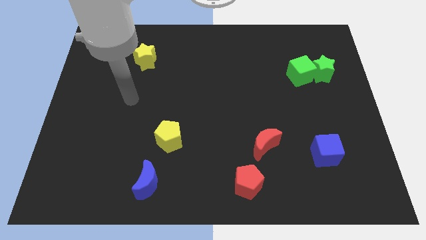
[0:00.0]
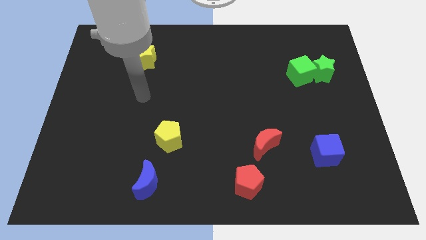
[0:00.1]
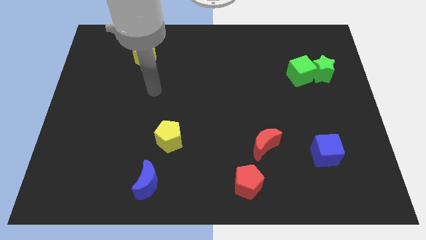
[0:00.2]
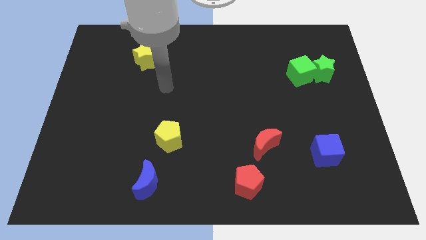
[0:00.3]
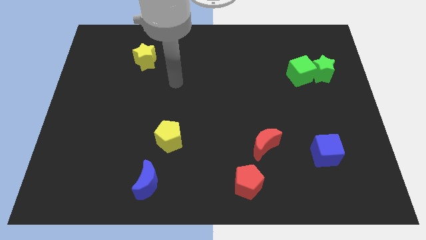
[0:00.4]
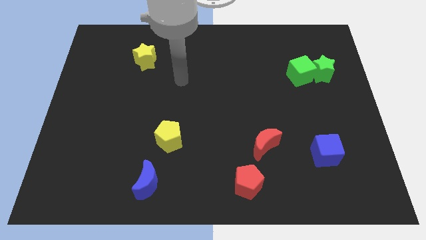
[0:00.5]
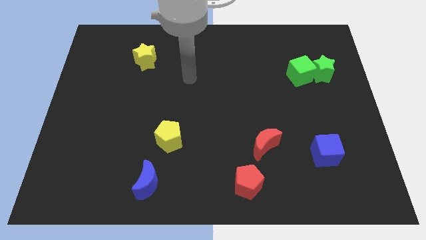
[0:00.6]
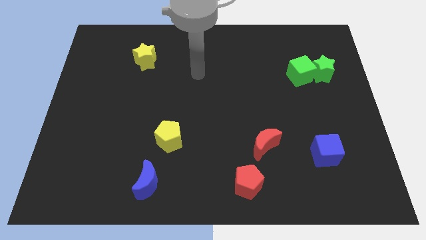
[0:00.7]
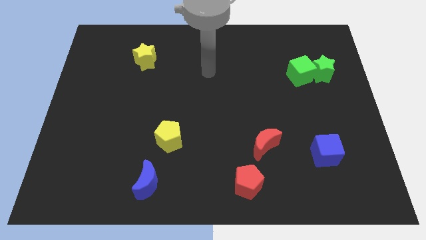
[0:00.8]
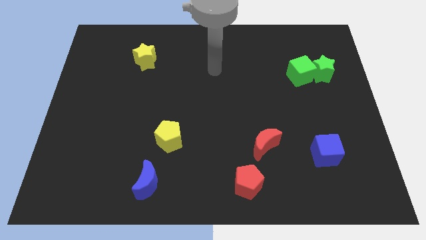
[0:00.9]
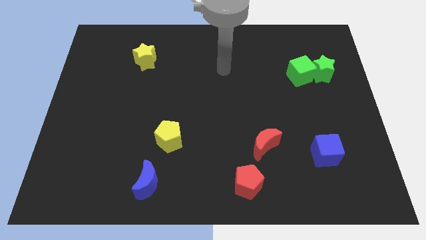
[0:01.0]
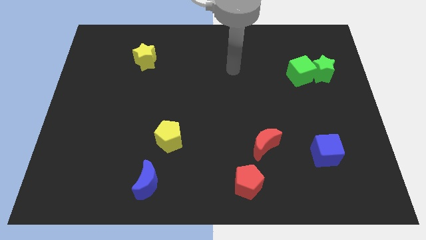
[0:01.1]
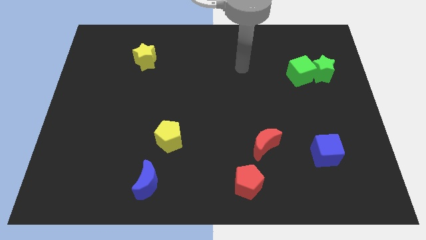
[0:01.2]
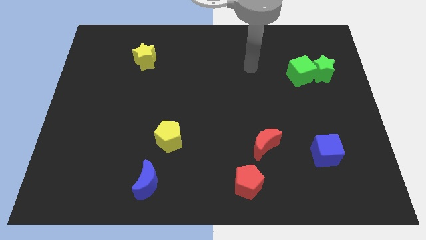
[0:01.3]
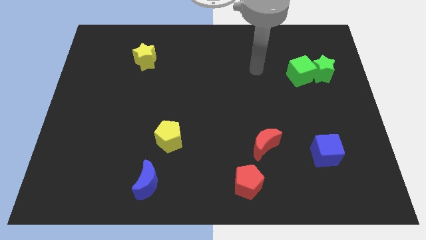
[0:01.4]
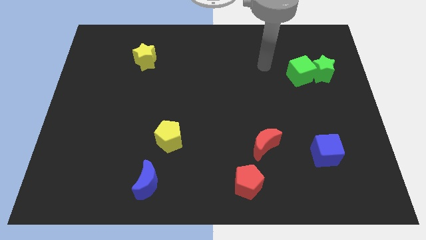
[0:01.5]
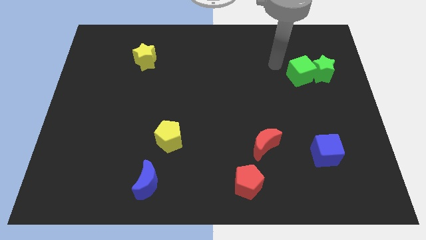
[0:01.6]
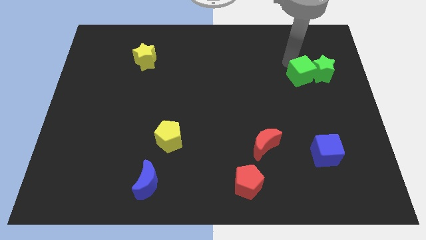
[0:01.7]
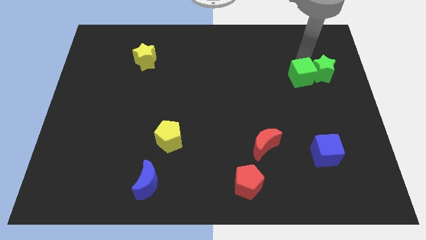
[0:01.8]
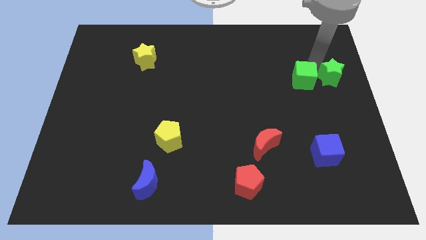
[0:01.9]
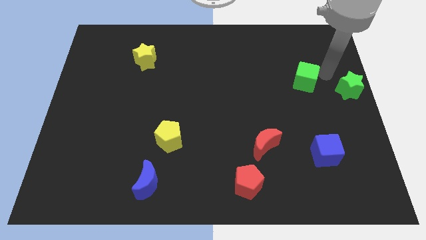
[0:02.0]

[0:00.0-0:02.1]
pull the green cube apart from the green star

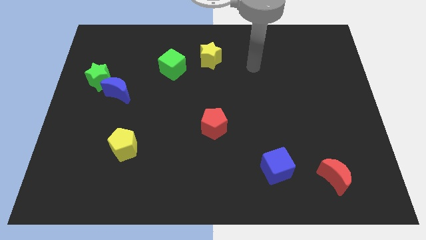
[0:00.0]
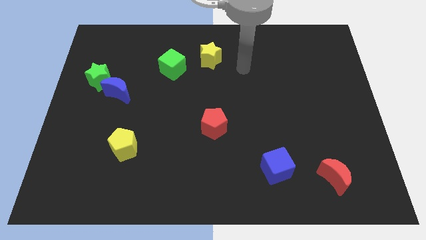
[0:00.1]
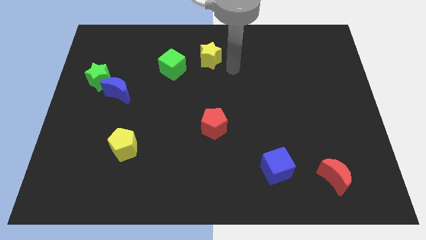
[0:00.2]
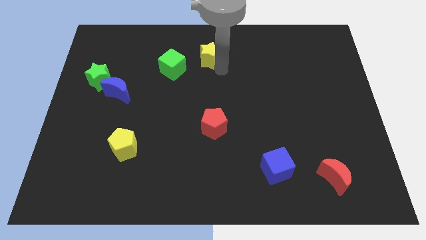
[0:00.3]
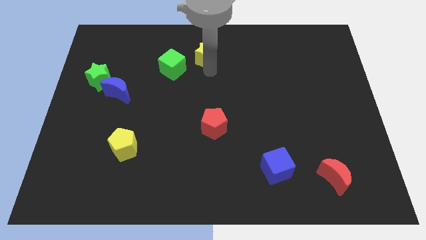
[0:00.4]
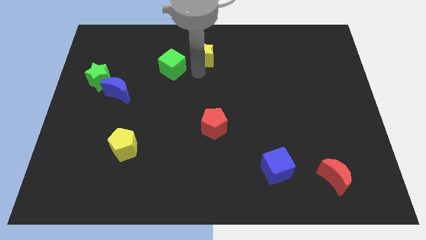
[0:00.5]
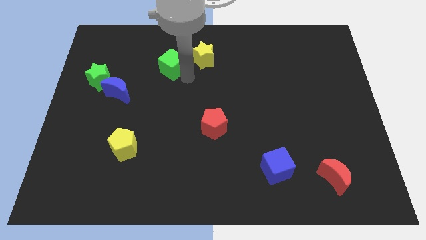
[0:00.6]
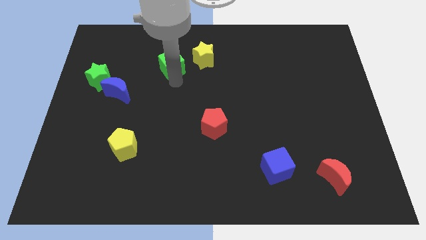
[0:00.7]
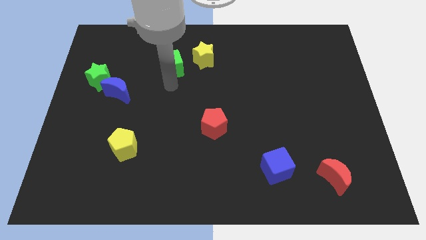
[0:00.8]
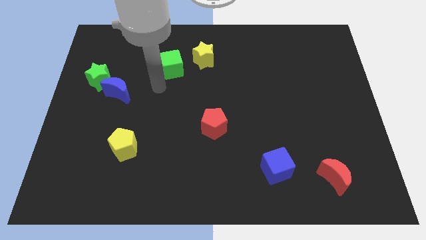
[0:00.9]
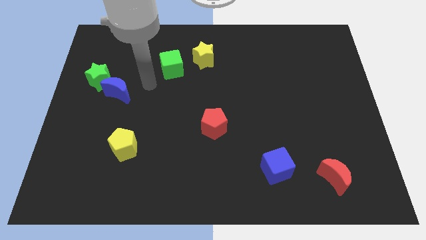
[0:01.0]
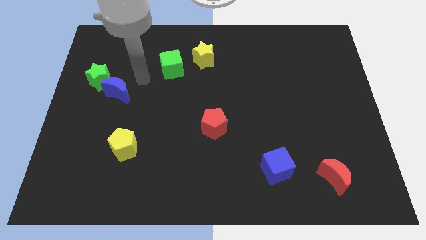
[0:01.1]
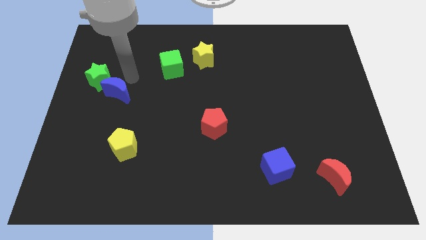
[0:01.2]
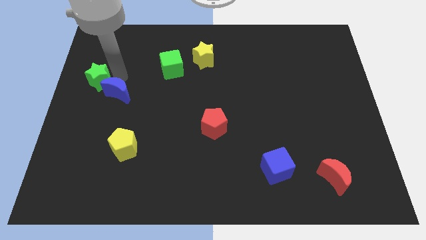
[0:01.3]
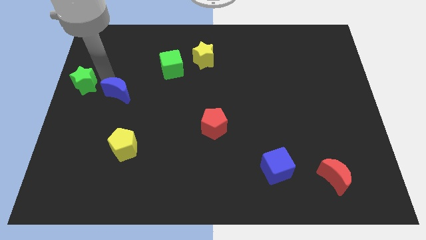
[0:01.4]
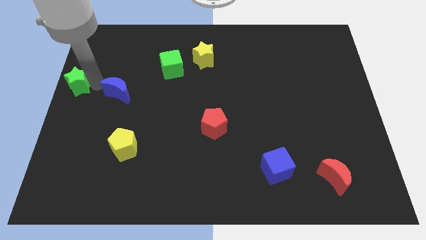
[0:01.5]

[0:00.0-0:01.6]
move the blue moon away from the green star

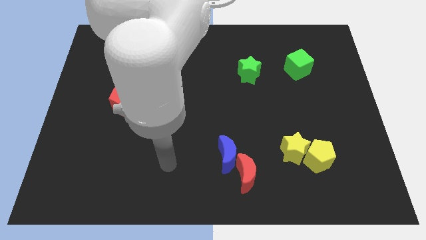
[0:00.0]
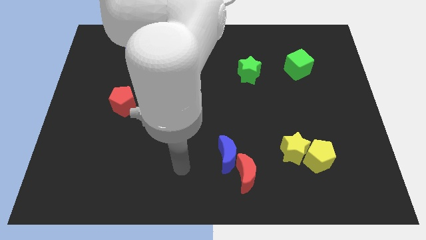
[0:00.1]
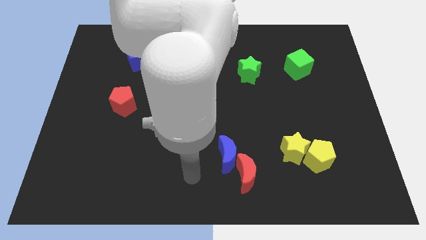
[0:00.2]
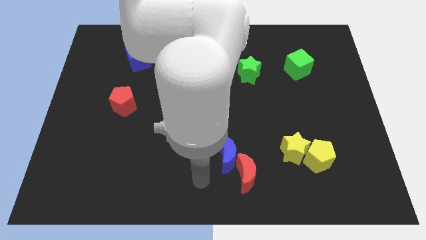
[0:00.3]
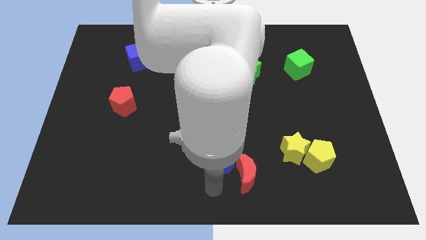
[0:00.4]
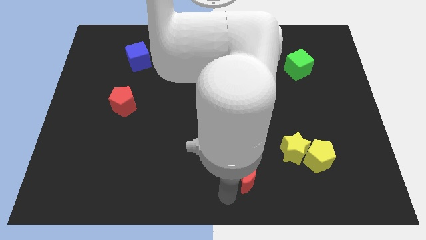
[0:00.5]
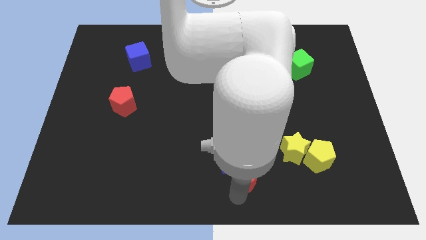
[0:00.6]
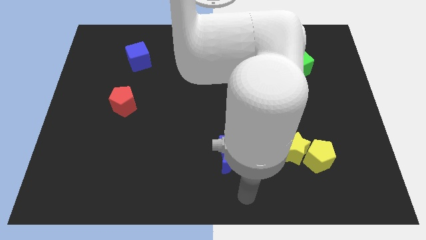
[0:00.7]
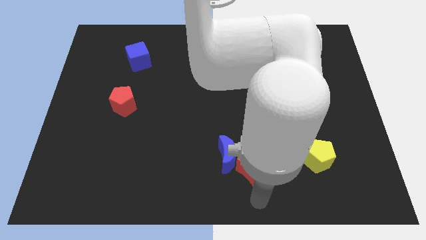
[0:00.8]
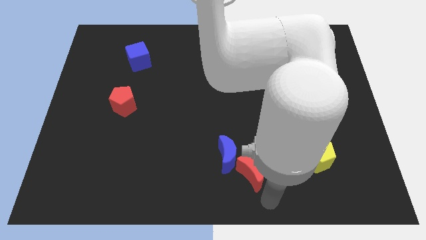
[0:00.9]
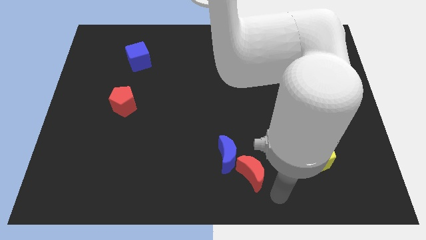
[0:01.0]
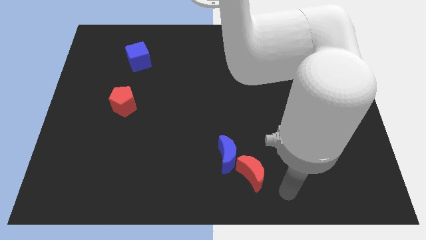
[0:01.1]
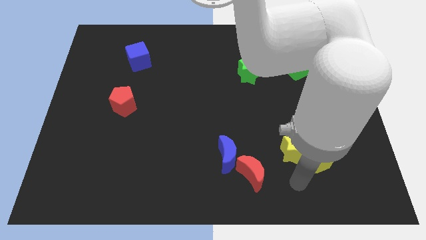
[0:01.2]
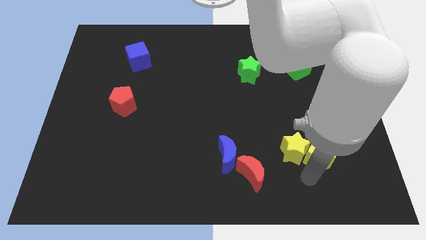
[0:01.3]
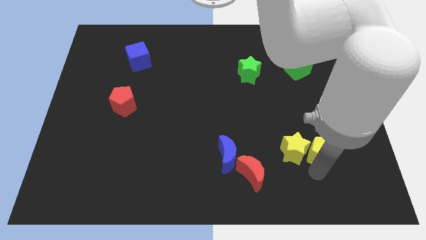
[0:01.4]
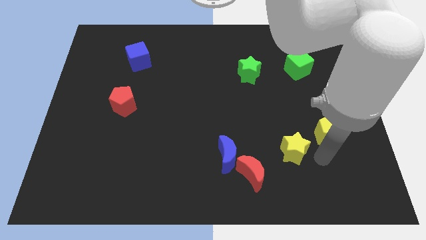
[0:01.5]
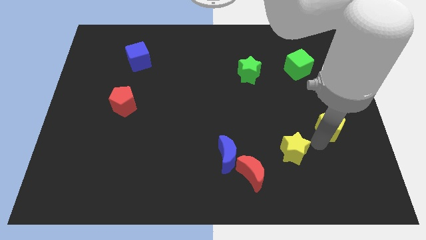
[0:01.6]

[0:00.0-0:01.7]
separate the yellow star from the yellow pentagon

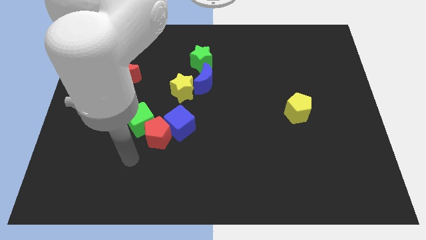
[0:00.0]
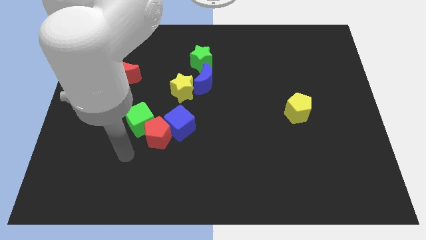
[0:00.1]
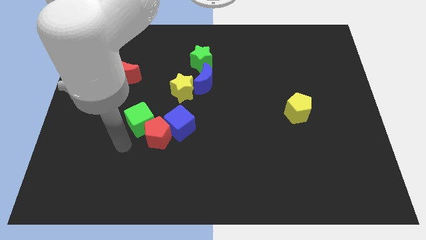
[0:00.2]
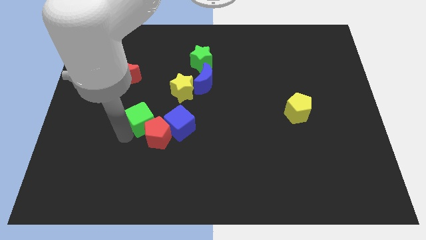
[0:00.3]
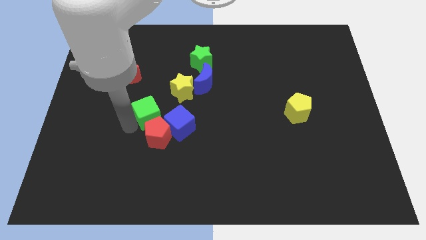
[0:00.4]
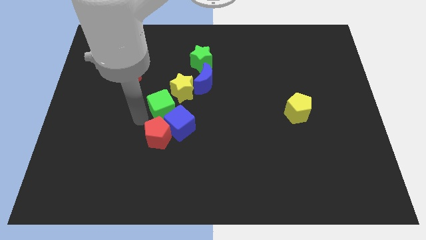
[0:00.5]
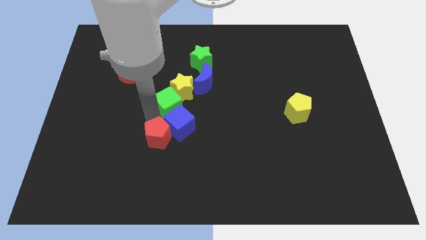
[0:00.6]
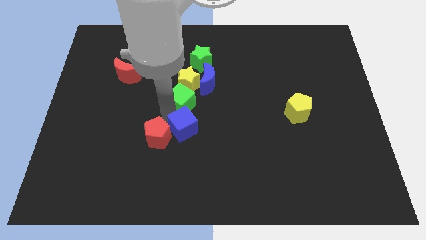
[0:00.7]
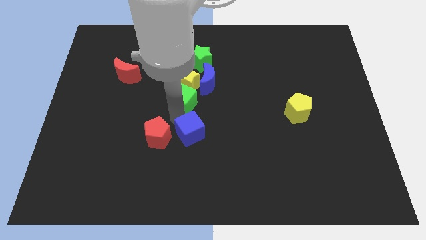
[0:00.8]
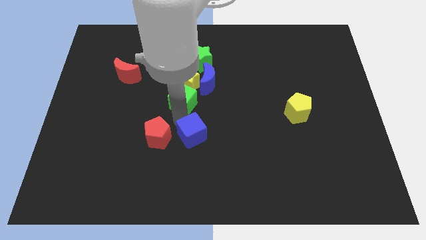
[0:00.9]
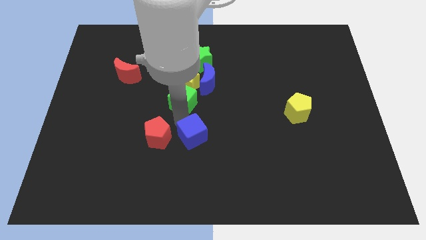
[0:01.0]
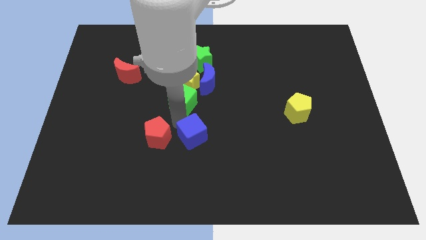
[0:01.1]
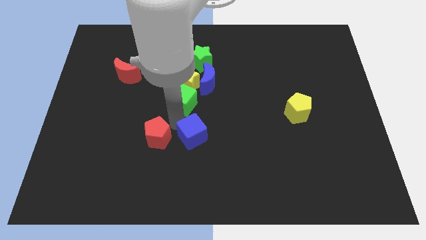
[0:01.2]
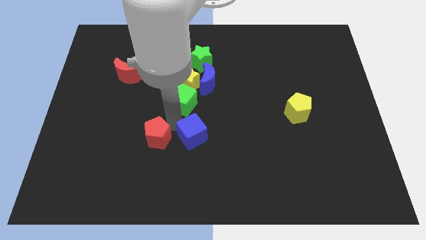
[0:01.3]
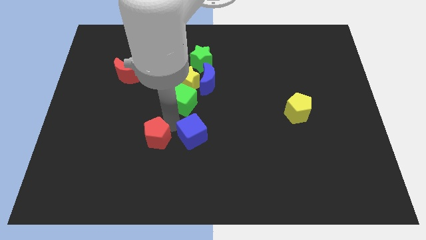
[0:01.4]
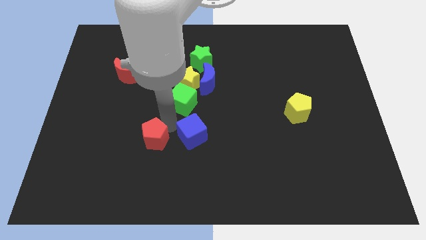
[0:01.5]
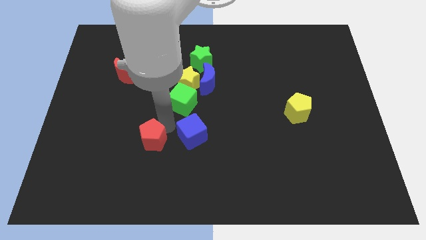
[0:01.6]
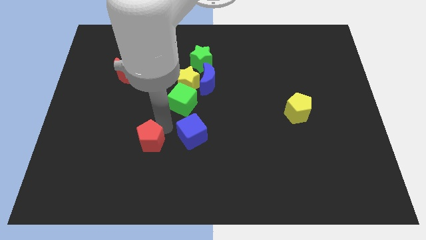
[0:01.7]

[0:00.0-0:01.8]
separate the red pentagon from the green cube and blue cube

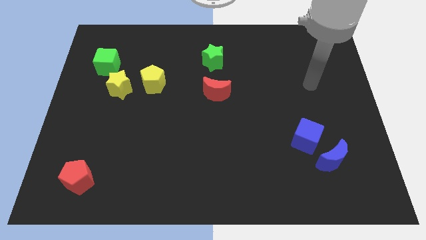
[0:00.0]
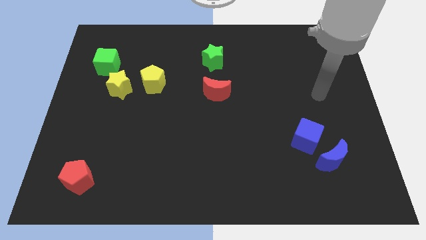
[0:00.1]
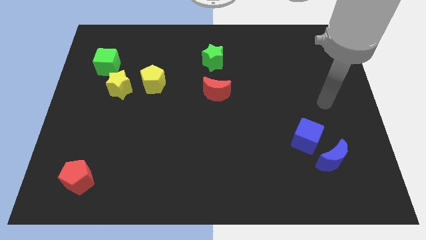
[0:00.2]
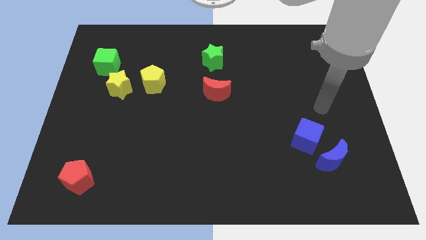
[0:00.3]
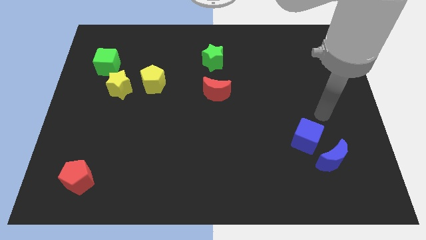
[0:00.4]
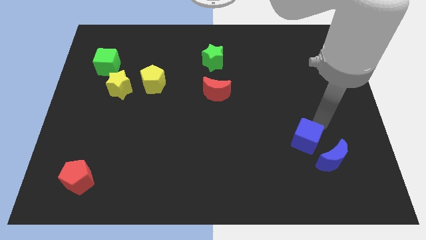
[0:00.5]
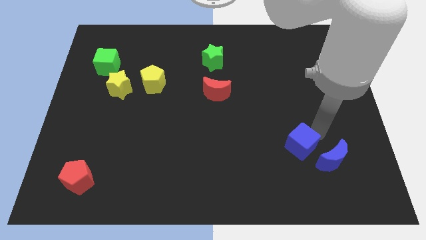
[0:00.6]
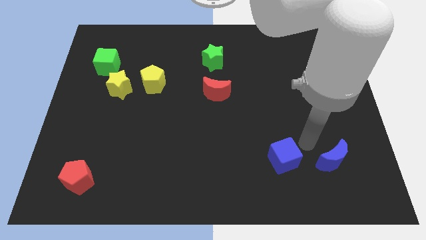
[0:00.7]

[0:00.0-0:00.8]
move the blue moon away from the blue cube

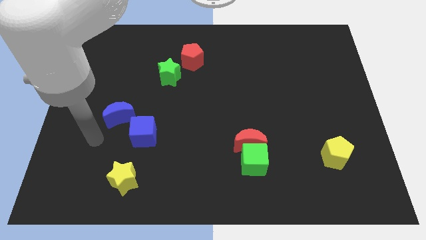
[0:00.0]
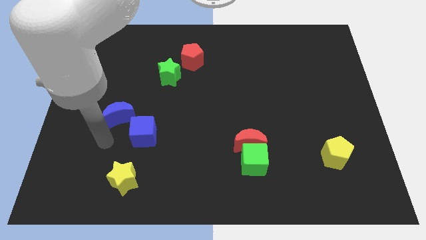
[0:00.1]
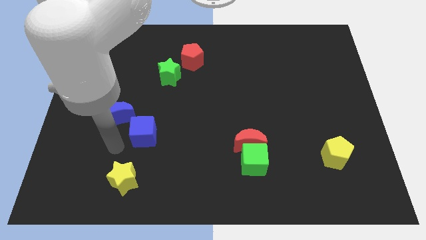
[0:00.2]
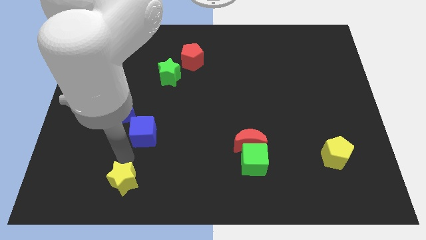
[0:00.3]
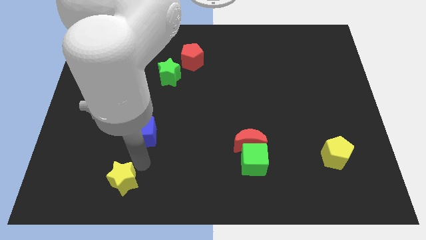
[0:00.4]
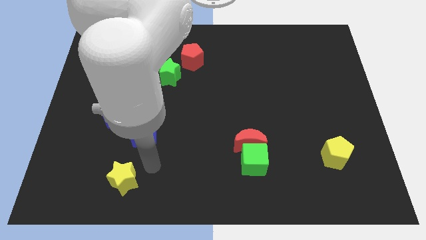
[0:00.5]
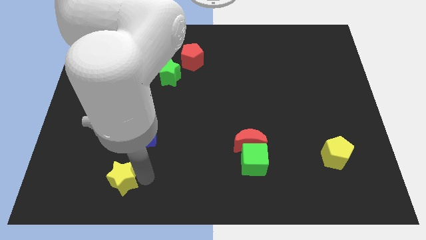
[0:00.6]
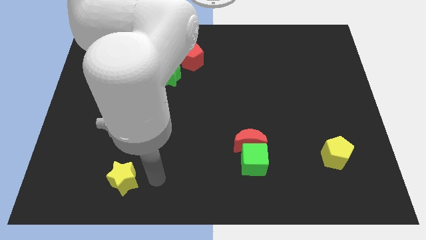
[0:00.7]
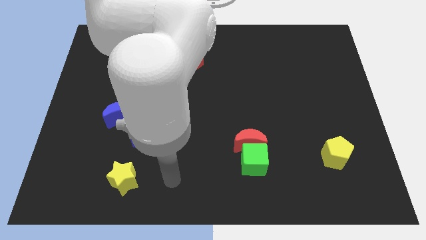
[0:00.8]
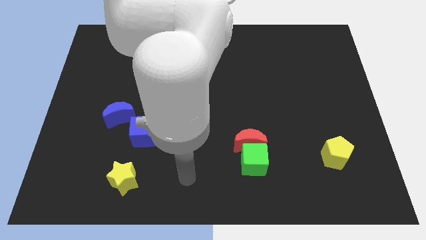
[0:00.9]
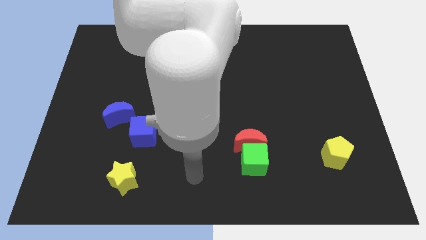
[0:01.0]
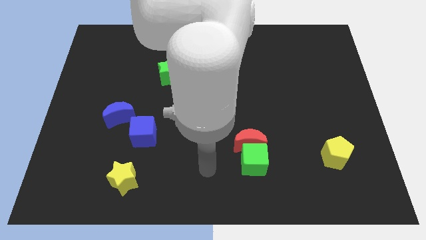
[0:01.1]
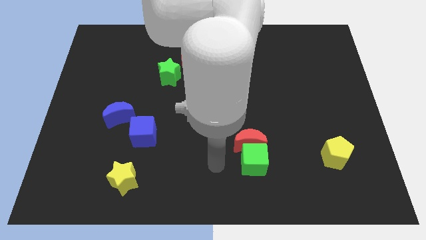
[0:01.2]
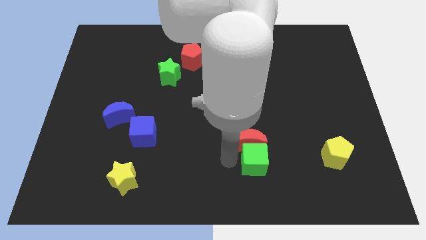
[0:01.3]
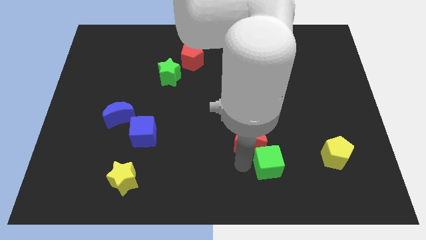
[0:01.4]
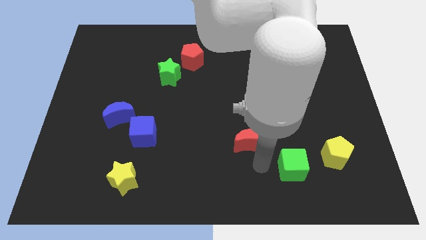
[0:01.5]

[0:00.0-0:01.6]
move the red moon away from the green cube
